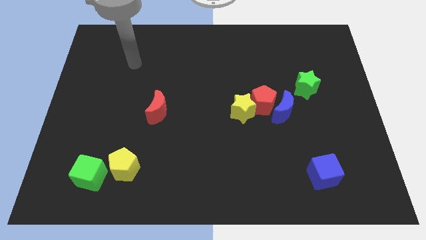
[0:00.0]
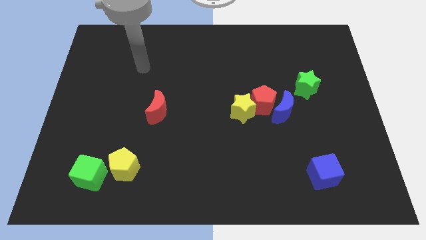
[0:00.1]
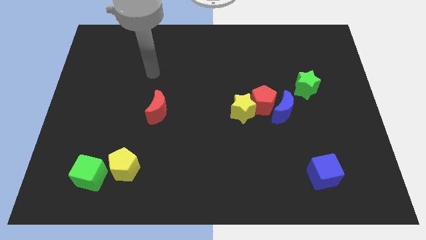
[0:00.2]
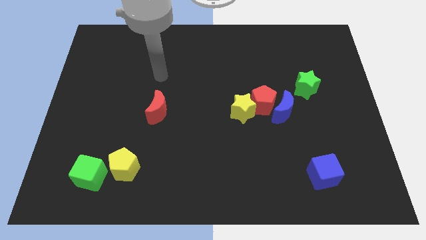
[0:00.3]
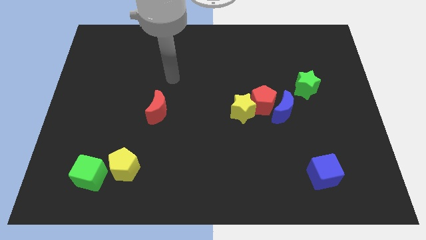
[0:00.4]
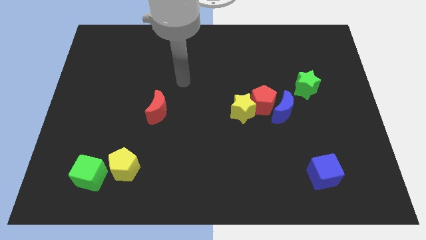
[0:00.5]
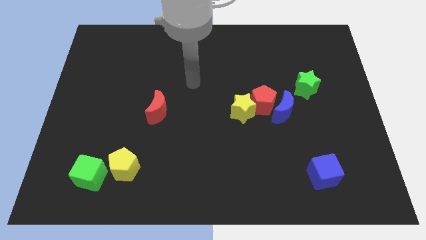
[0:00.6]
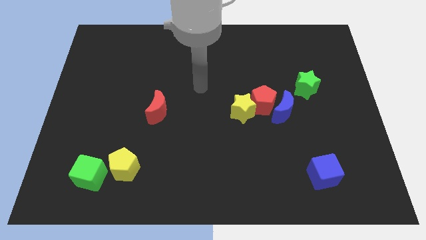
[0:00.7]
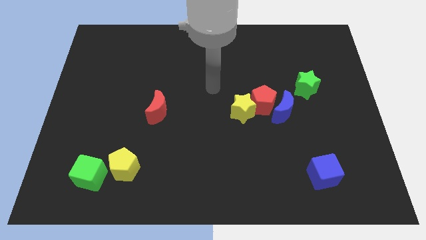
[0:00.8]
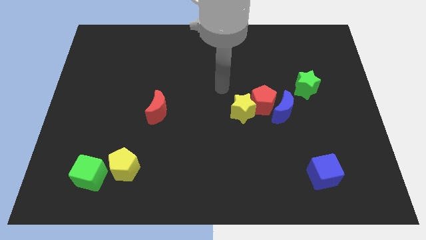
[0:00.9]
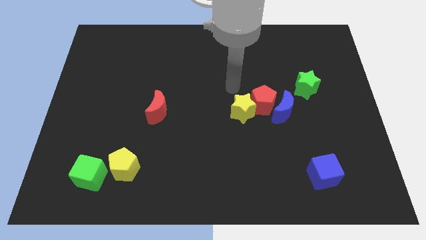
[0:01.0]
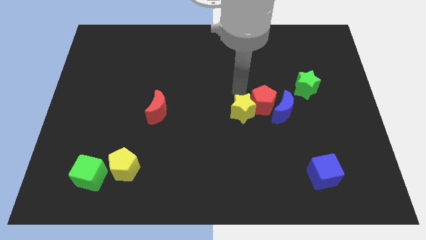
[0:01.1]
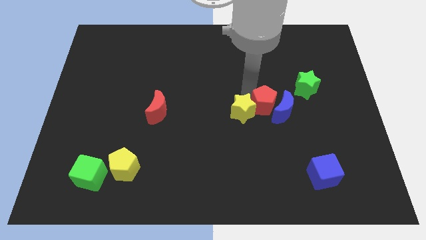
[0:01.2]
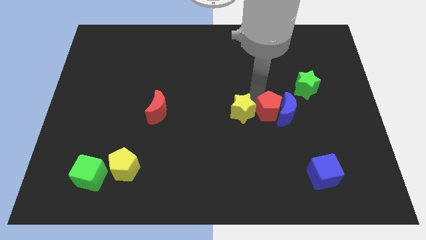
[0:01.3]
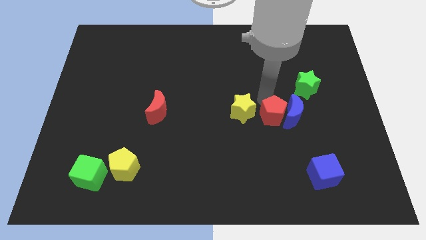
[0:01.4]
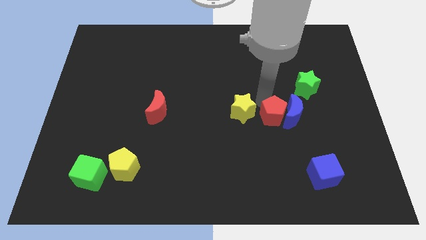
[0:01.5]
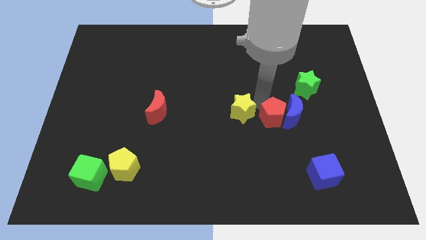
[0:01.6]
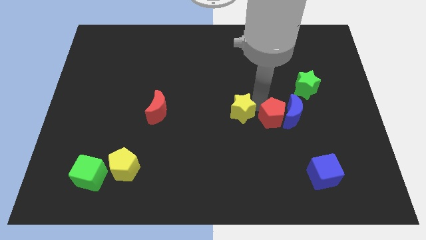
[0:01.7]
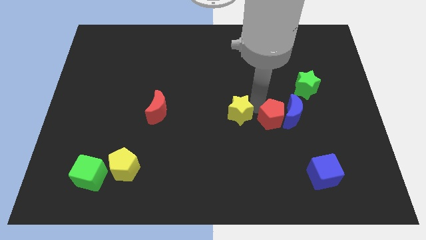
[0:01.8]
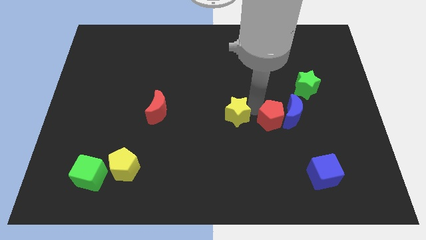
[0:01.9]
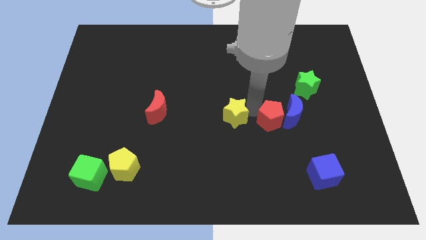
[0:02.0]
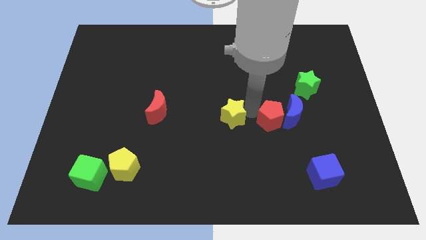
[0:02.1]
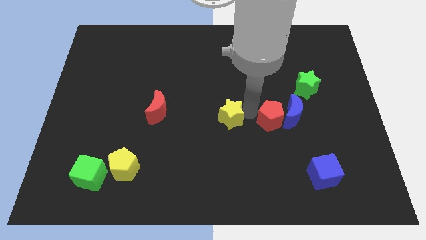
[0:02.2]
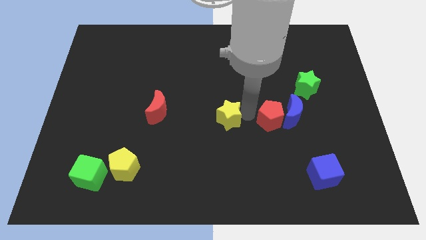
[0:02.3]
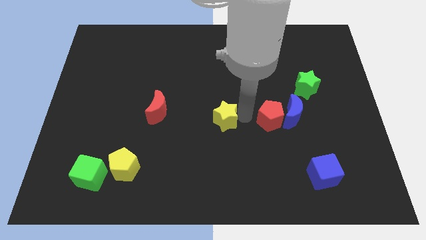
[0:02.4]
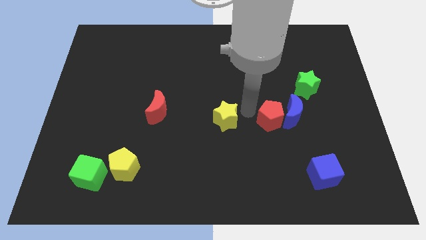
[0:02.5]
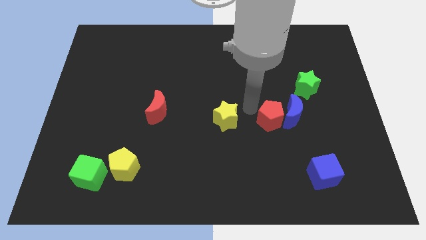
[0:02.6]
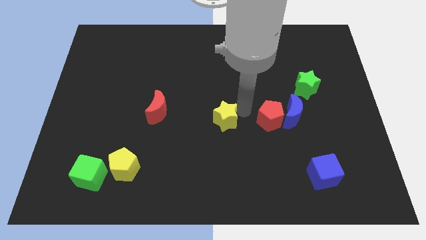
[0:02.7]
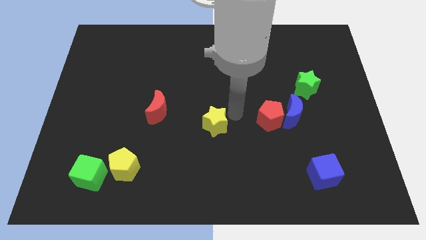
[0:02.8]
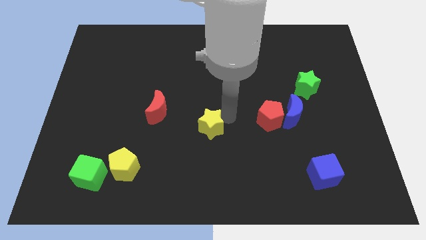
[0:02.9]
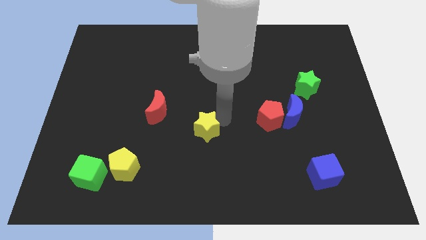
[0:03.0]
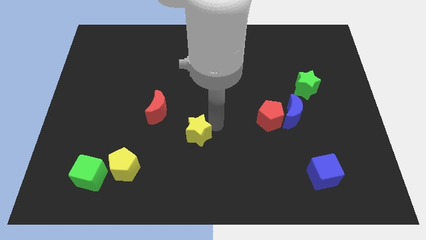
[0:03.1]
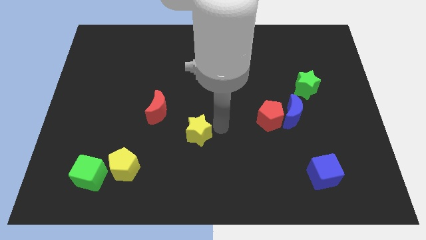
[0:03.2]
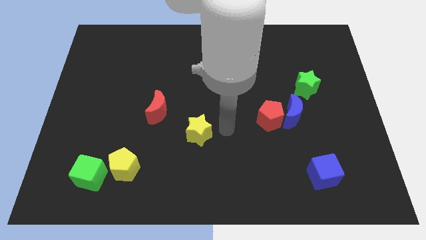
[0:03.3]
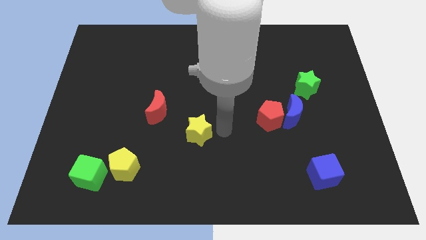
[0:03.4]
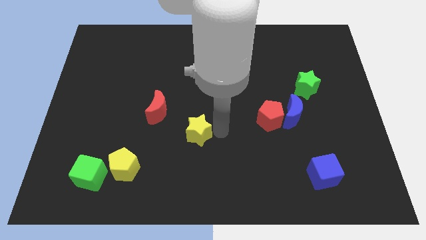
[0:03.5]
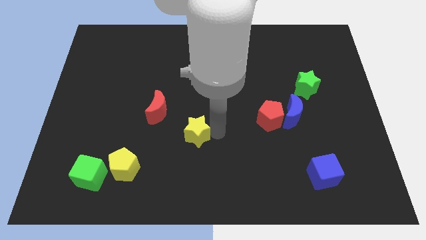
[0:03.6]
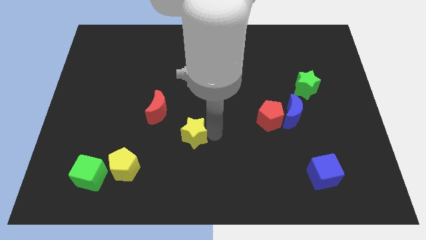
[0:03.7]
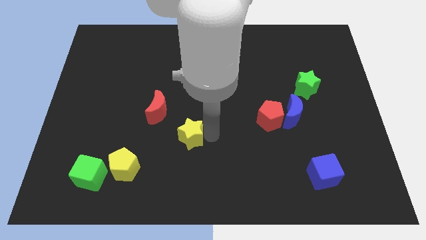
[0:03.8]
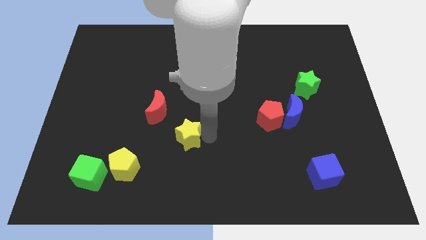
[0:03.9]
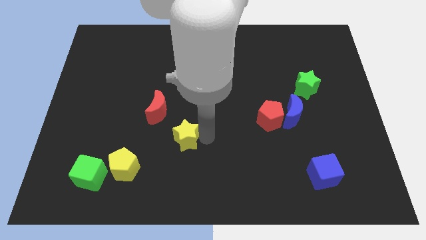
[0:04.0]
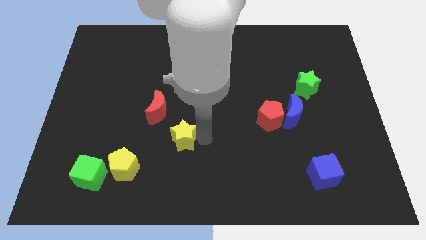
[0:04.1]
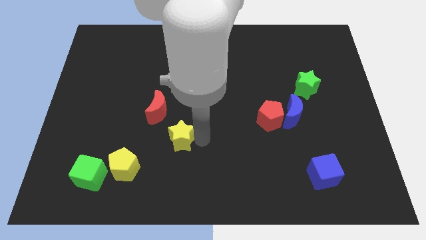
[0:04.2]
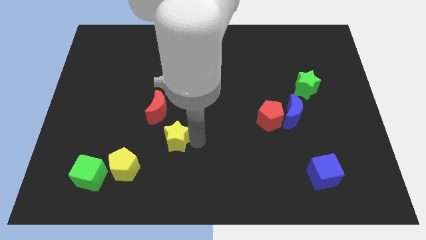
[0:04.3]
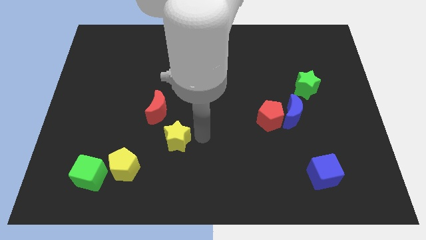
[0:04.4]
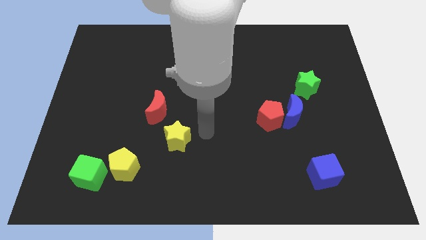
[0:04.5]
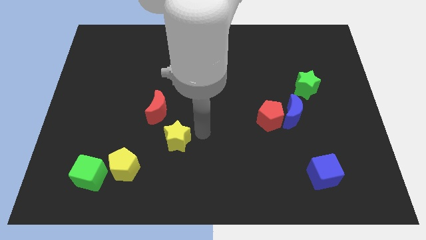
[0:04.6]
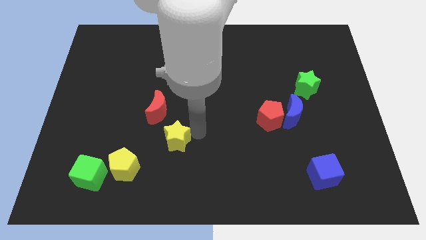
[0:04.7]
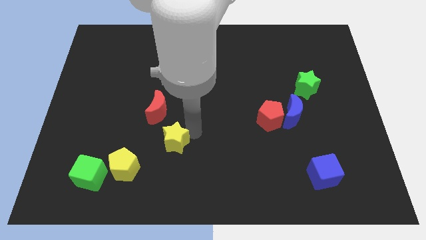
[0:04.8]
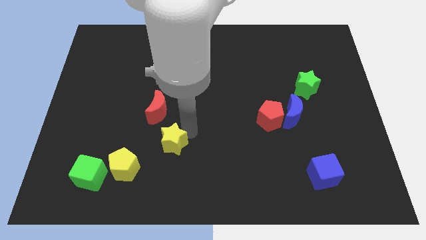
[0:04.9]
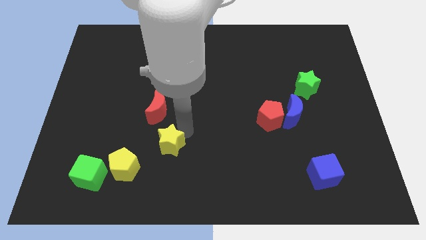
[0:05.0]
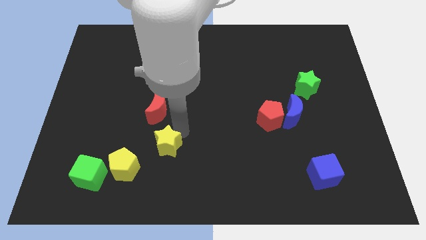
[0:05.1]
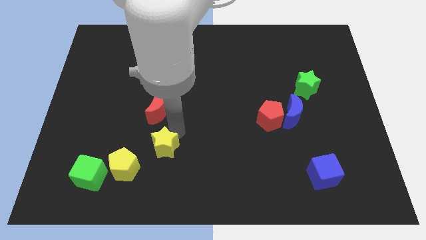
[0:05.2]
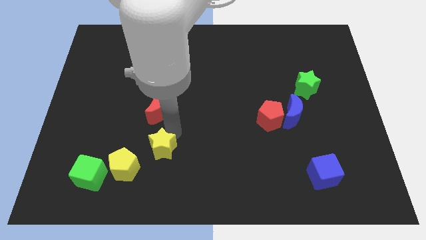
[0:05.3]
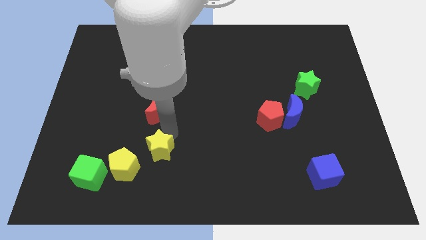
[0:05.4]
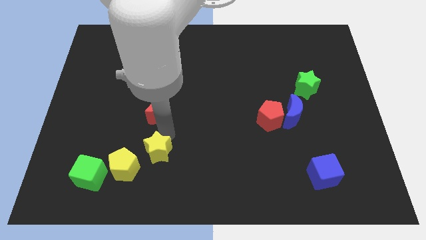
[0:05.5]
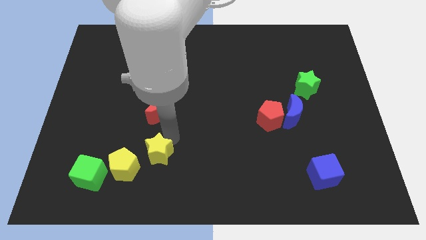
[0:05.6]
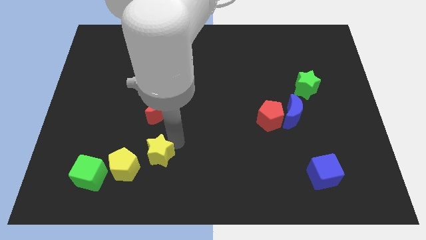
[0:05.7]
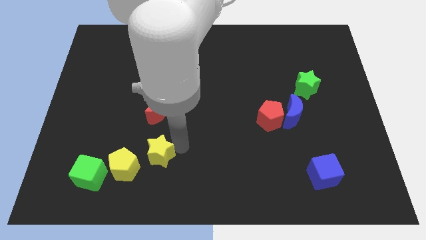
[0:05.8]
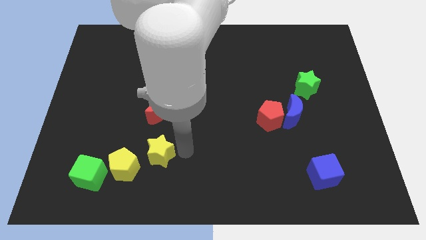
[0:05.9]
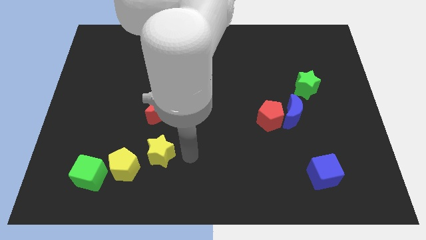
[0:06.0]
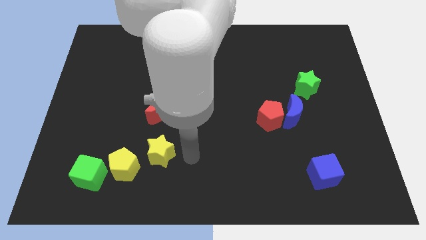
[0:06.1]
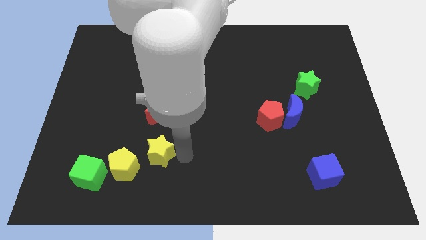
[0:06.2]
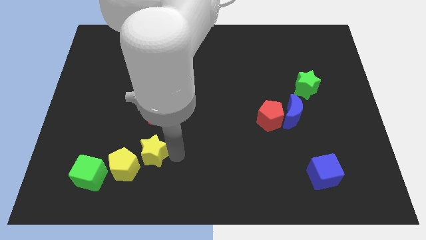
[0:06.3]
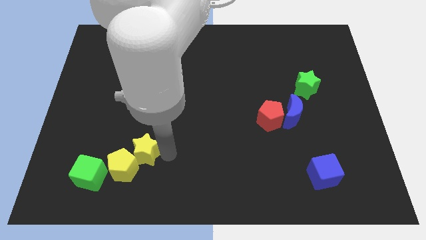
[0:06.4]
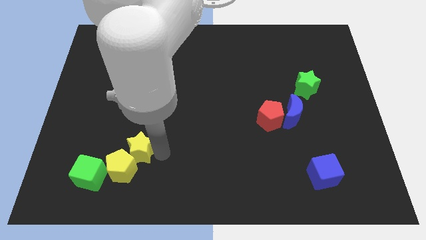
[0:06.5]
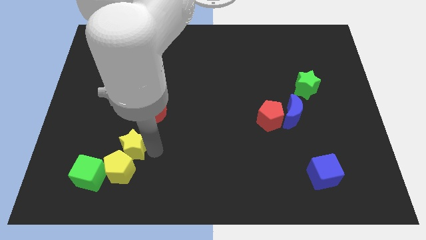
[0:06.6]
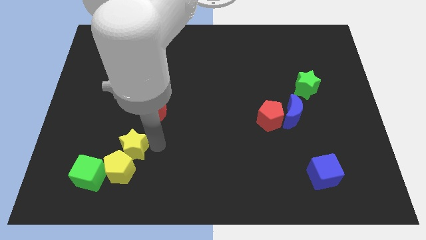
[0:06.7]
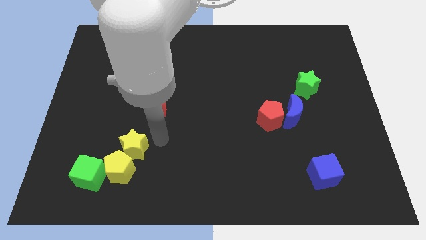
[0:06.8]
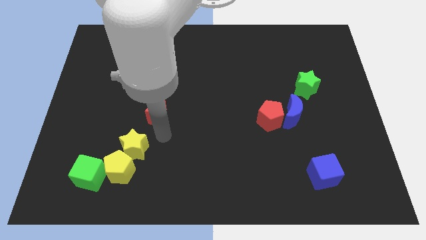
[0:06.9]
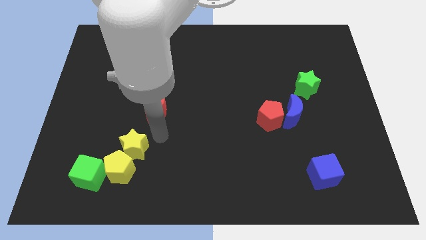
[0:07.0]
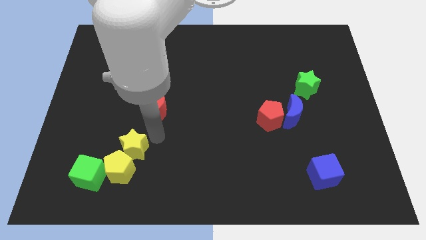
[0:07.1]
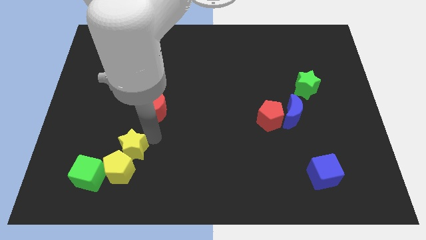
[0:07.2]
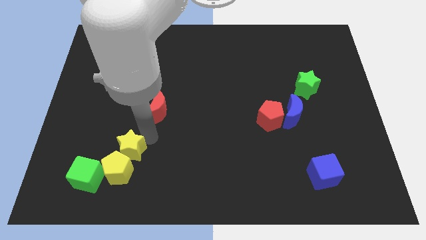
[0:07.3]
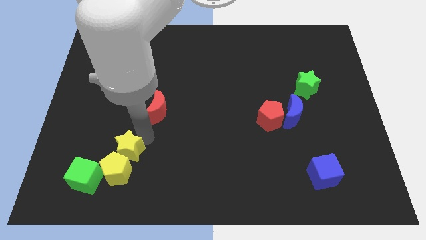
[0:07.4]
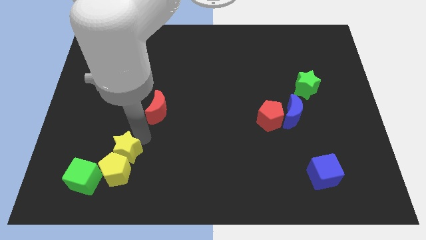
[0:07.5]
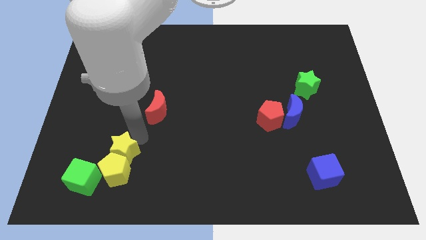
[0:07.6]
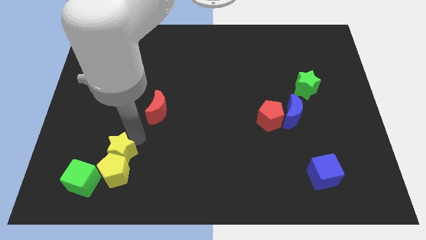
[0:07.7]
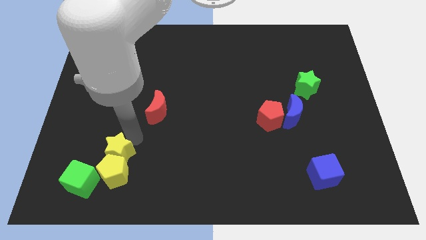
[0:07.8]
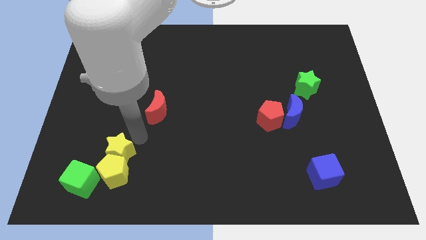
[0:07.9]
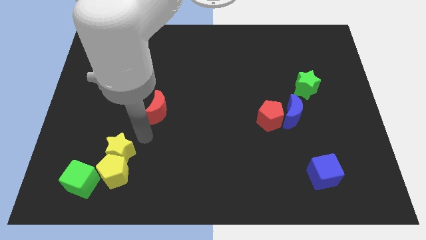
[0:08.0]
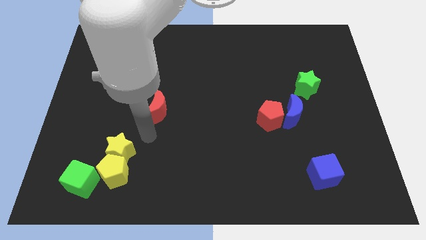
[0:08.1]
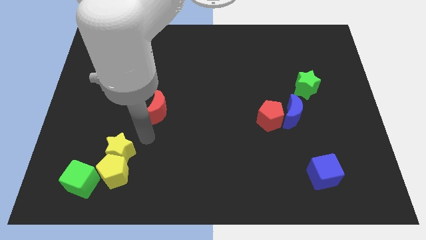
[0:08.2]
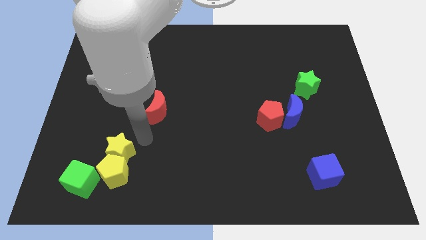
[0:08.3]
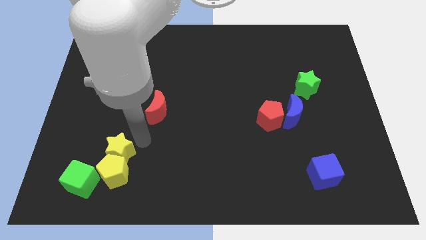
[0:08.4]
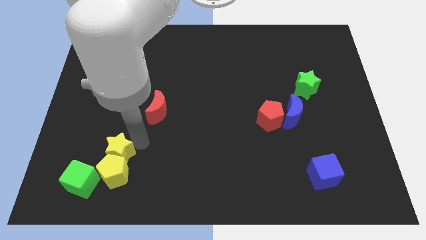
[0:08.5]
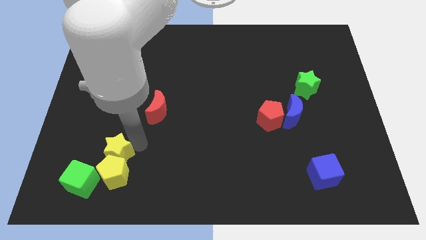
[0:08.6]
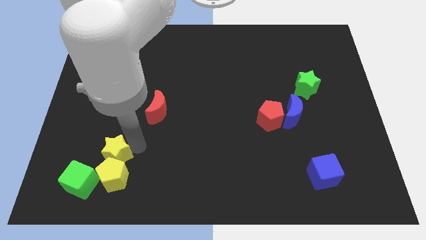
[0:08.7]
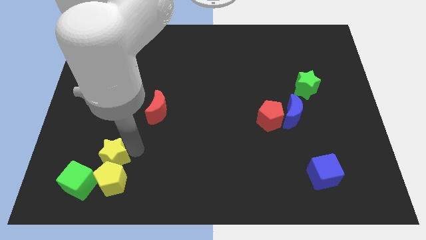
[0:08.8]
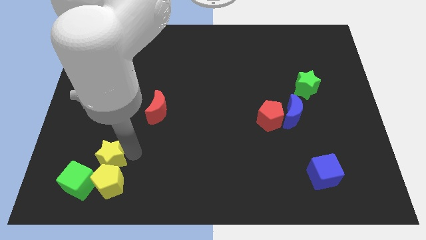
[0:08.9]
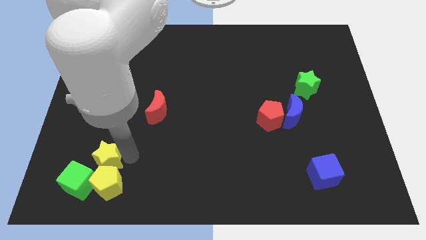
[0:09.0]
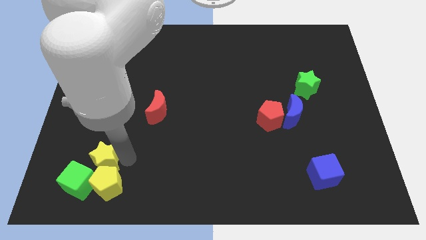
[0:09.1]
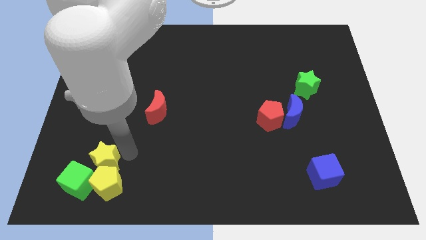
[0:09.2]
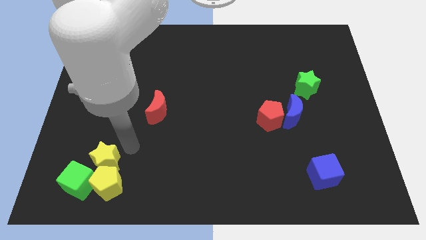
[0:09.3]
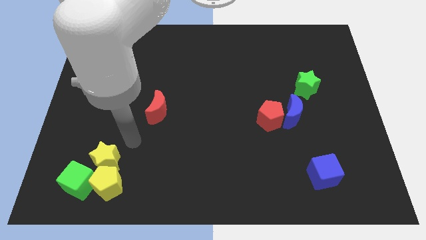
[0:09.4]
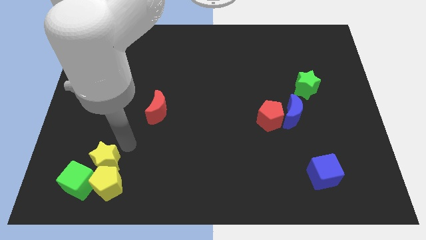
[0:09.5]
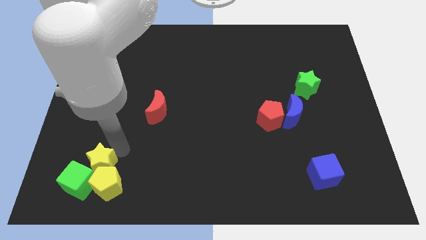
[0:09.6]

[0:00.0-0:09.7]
put the yellow star to the green cube
